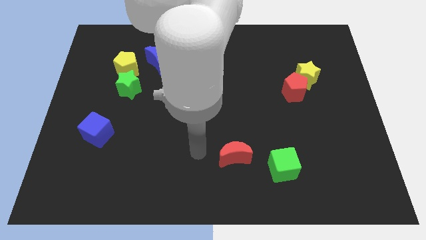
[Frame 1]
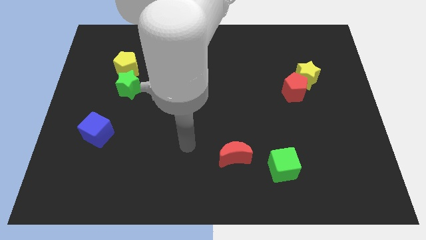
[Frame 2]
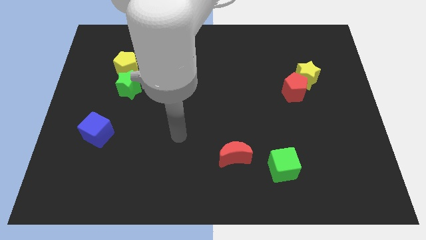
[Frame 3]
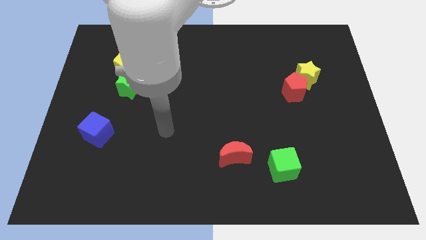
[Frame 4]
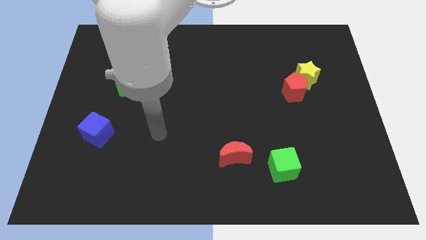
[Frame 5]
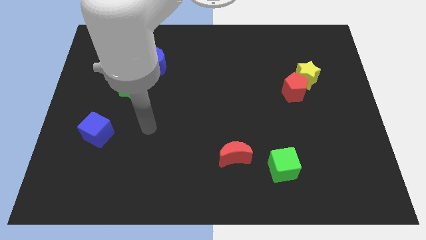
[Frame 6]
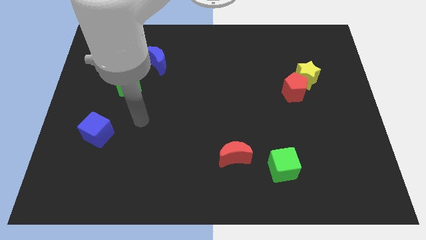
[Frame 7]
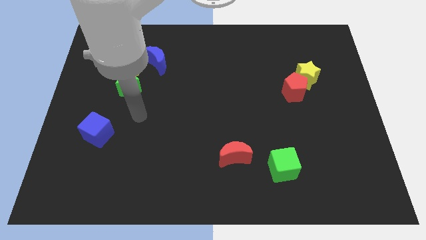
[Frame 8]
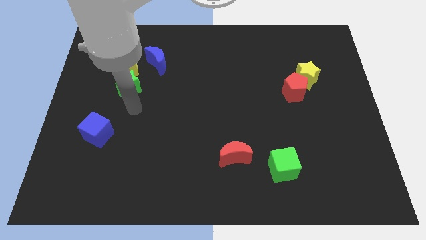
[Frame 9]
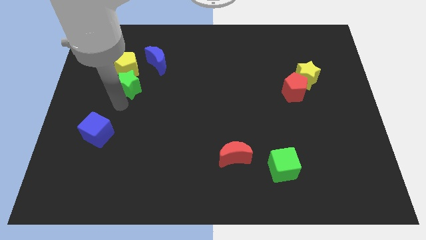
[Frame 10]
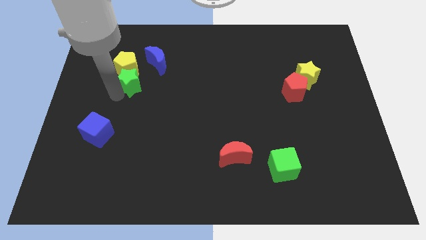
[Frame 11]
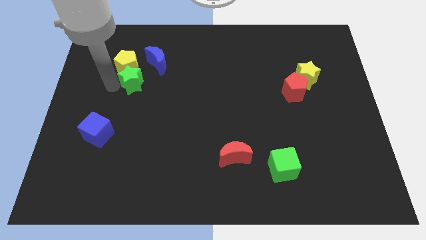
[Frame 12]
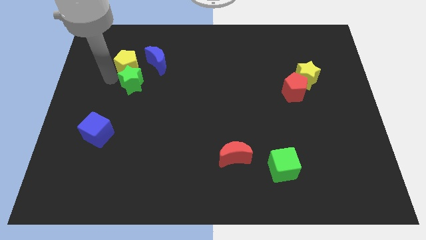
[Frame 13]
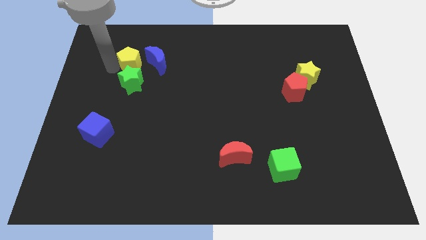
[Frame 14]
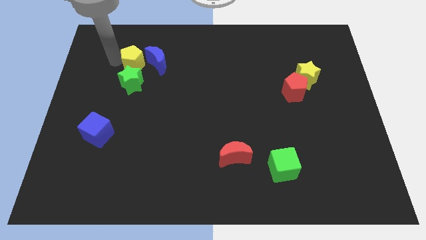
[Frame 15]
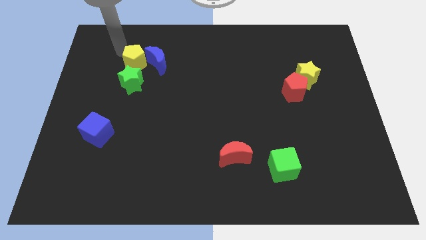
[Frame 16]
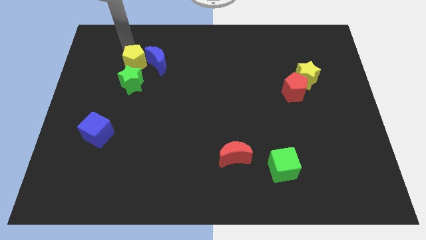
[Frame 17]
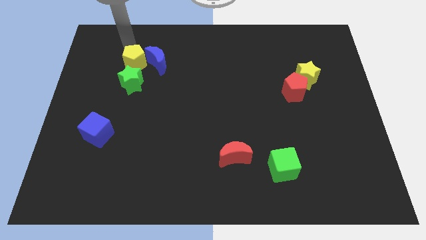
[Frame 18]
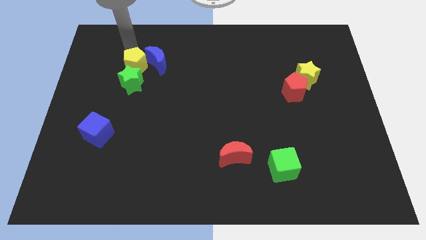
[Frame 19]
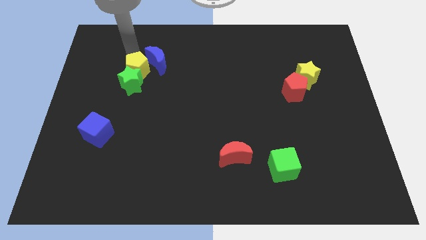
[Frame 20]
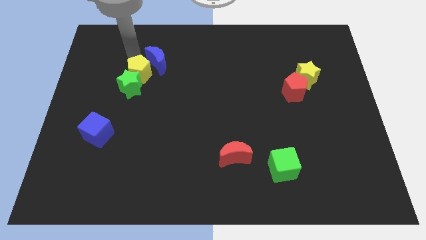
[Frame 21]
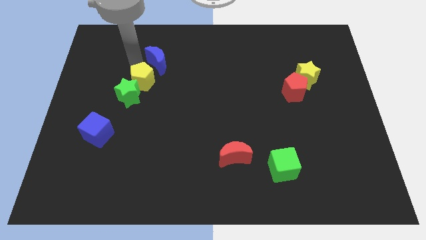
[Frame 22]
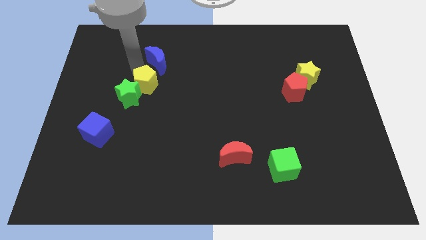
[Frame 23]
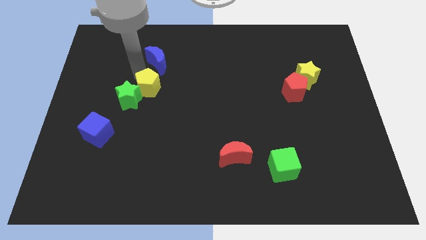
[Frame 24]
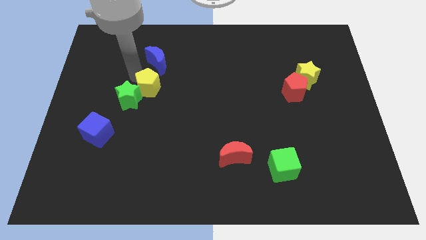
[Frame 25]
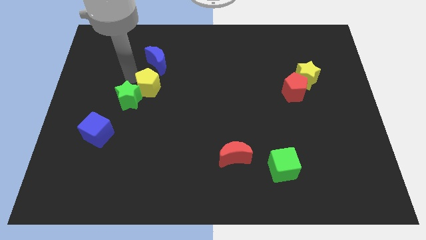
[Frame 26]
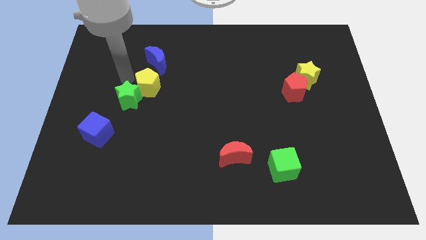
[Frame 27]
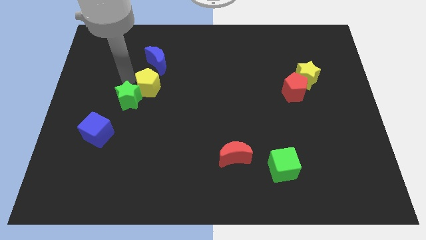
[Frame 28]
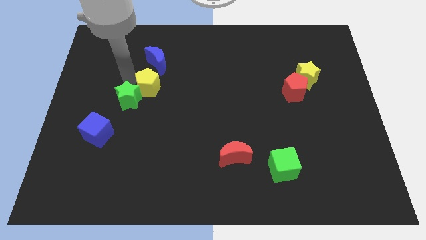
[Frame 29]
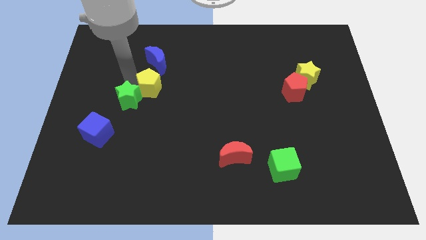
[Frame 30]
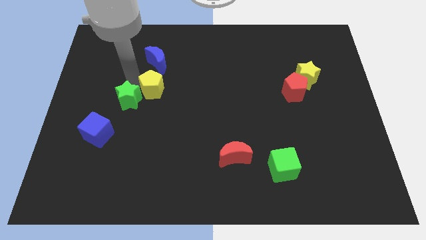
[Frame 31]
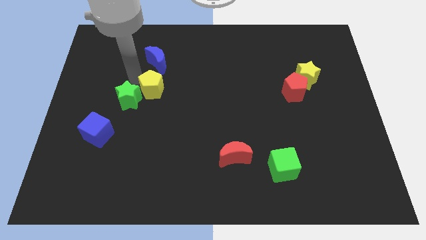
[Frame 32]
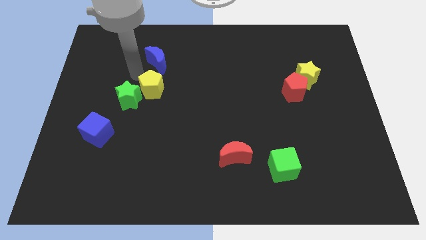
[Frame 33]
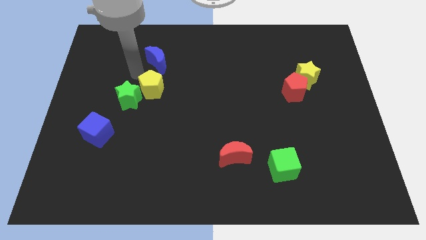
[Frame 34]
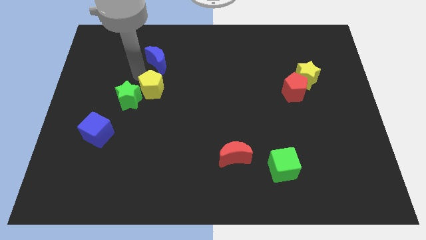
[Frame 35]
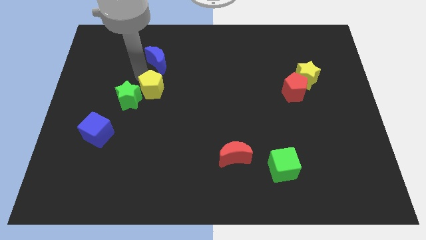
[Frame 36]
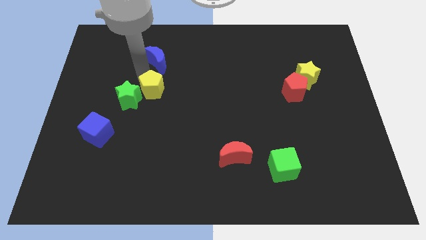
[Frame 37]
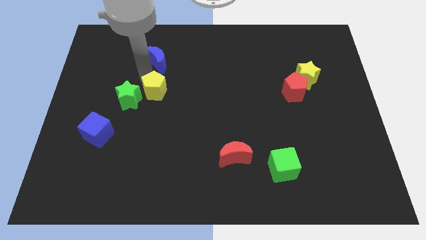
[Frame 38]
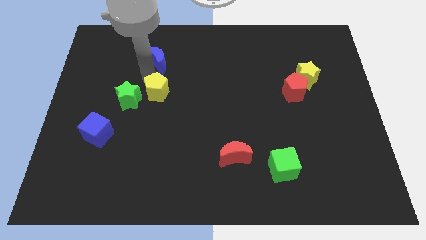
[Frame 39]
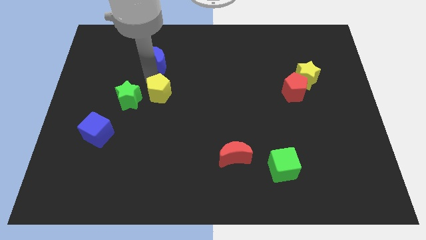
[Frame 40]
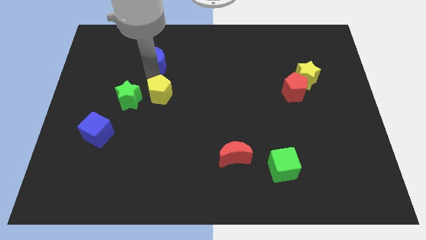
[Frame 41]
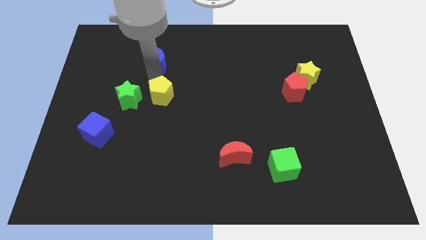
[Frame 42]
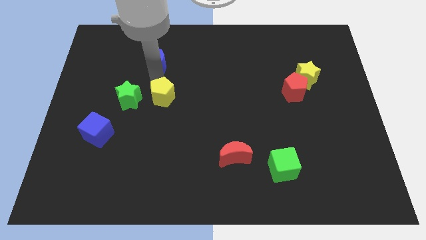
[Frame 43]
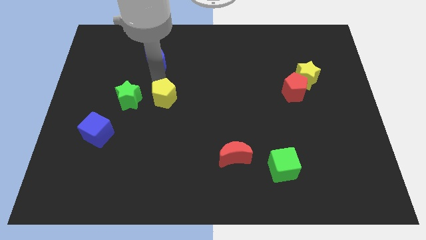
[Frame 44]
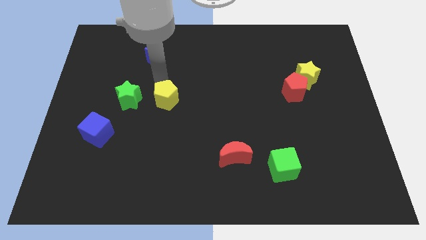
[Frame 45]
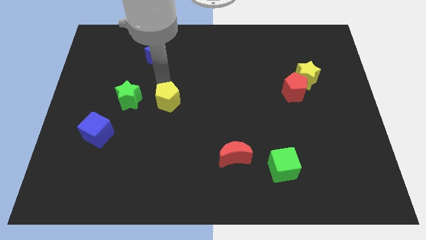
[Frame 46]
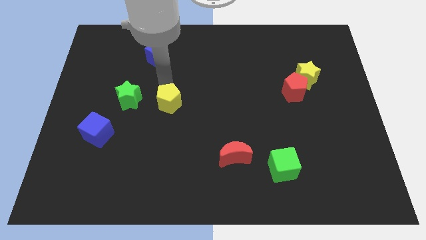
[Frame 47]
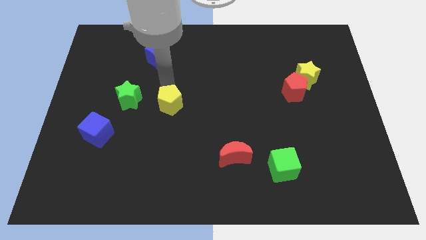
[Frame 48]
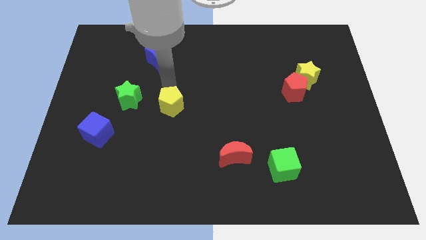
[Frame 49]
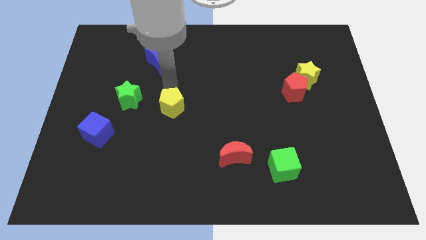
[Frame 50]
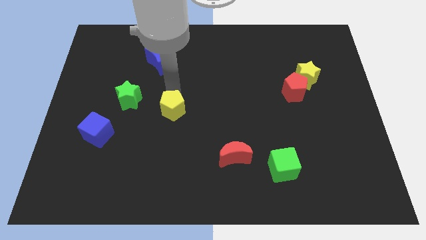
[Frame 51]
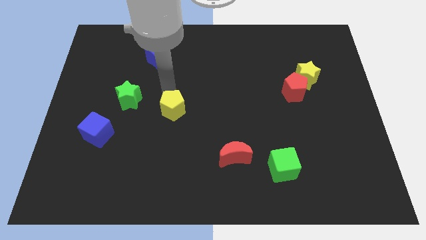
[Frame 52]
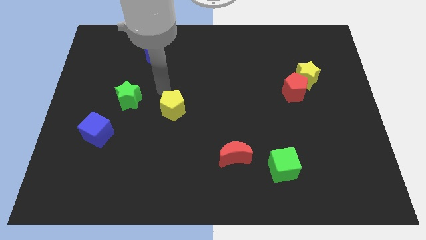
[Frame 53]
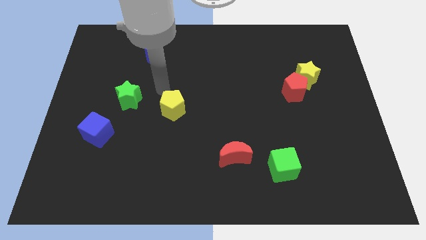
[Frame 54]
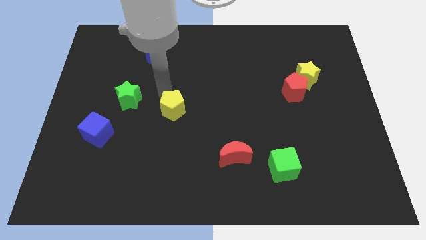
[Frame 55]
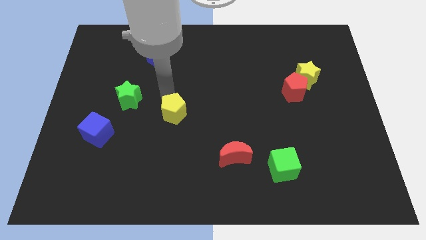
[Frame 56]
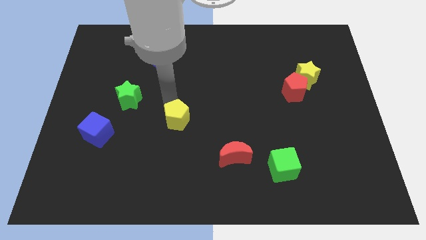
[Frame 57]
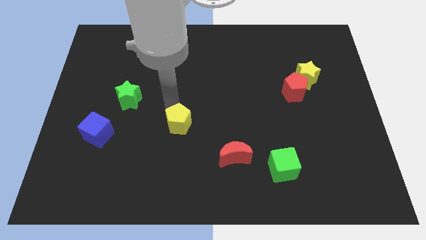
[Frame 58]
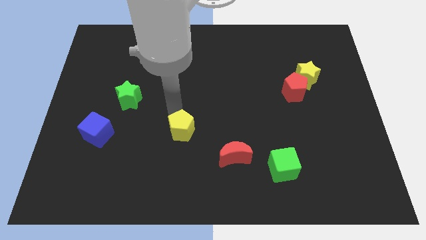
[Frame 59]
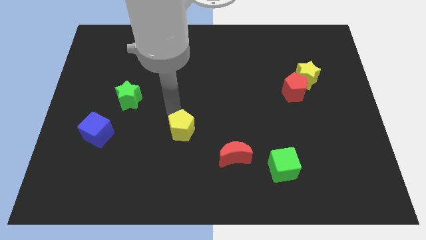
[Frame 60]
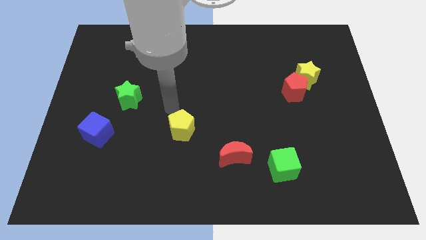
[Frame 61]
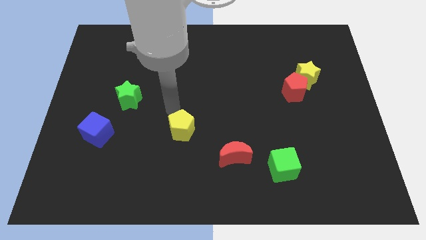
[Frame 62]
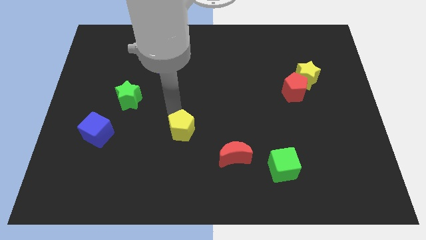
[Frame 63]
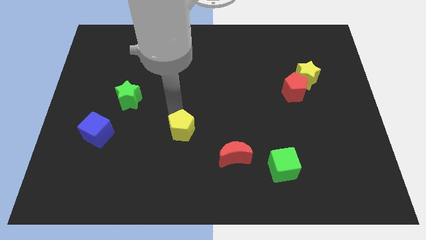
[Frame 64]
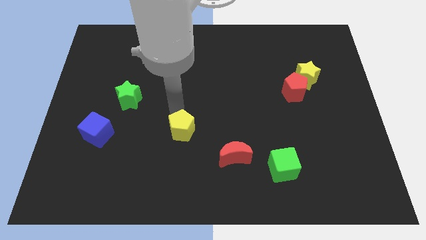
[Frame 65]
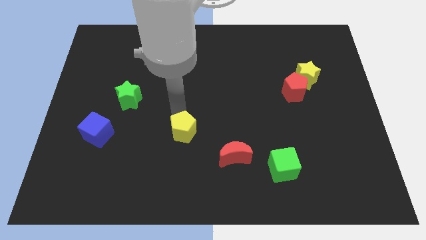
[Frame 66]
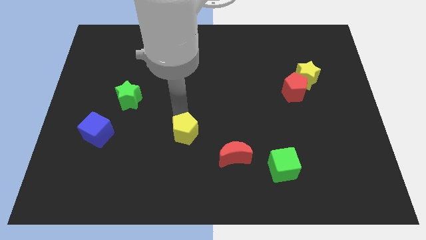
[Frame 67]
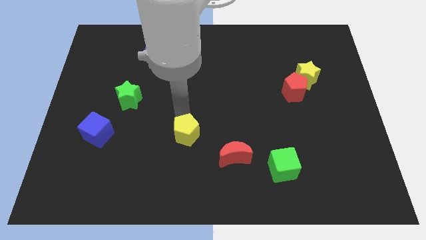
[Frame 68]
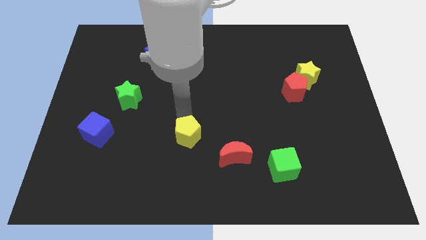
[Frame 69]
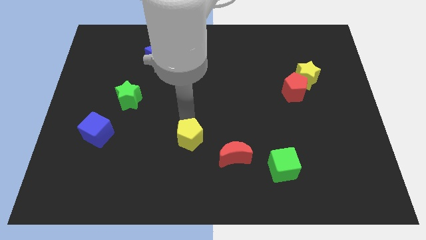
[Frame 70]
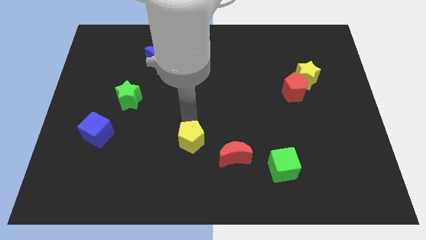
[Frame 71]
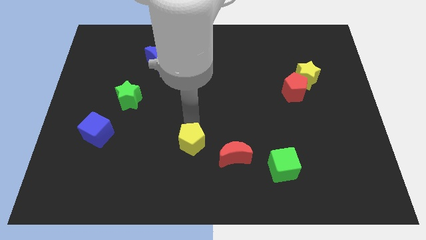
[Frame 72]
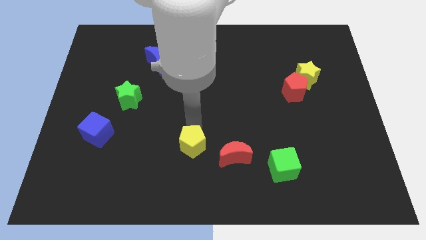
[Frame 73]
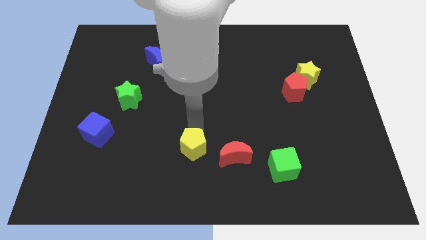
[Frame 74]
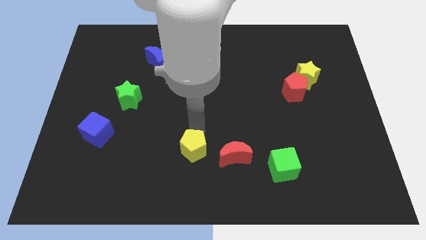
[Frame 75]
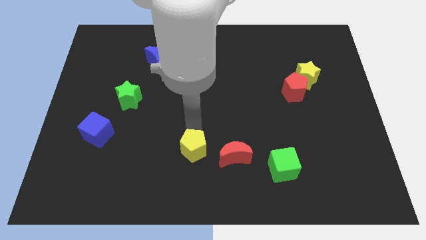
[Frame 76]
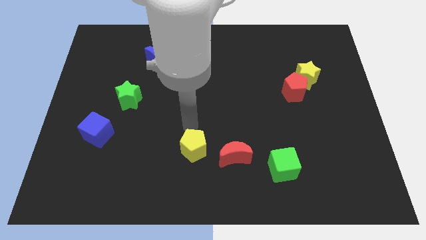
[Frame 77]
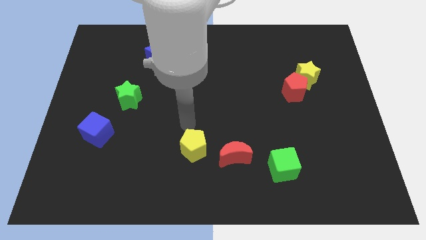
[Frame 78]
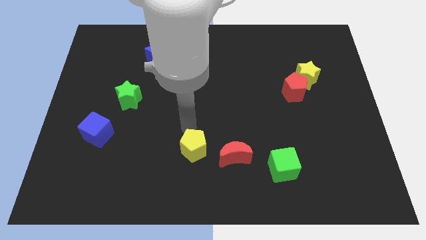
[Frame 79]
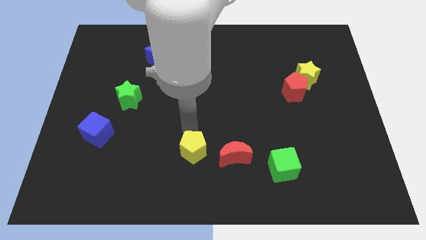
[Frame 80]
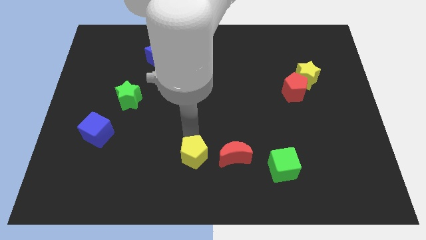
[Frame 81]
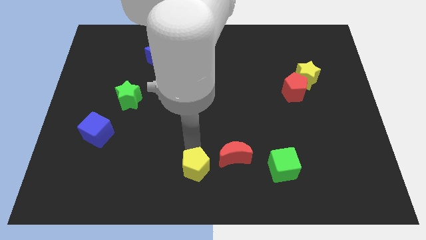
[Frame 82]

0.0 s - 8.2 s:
slide the yellow pentagon to the bottom
